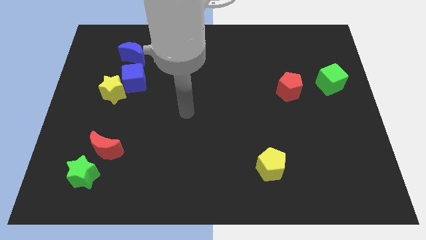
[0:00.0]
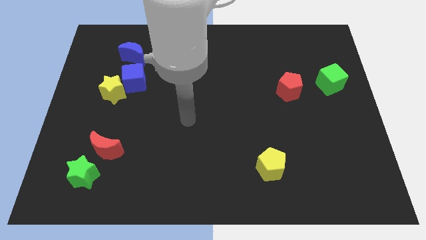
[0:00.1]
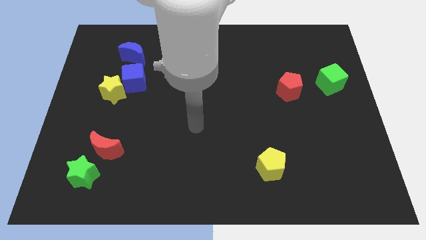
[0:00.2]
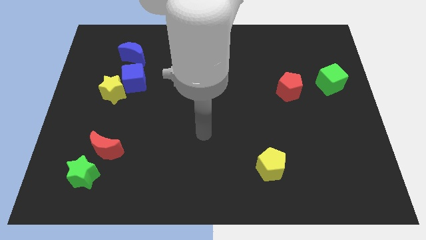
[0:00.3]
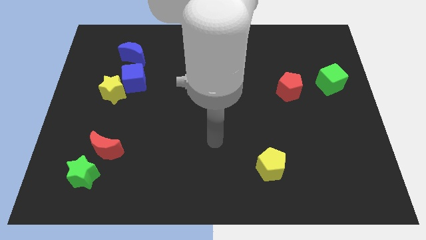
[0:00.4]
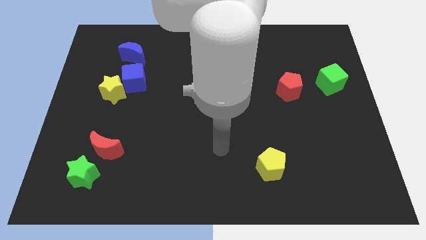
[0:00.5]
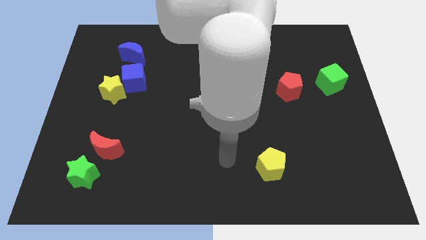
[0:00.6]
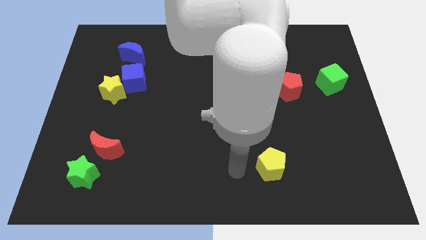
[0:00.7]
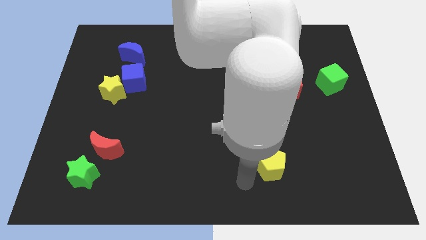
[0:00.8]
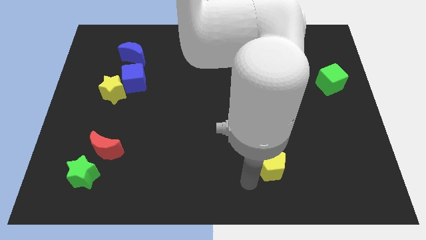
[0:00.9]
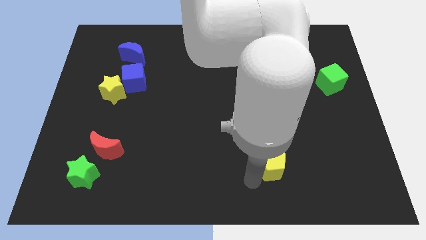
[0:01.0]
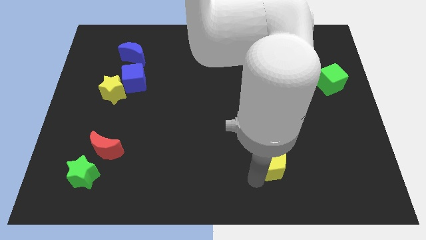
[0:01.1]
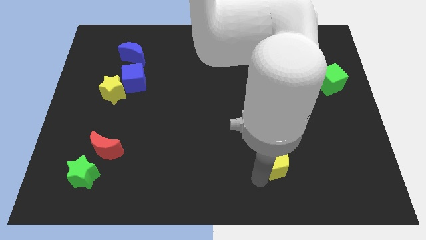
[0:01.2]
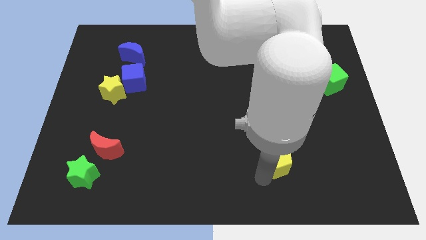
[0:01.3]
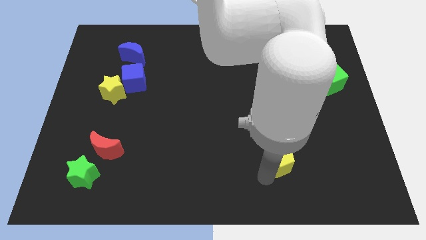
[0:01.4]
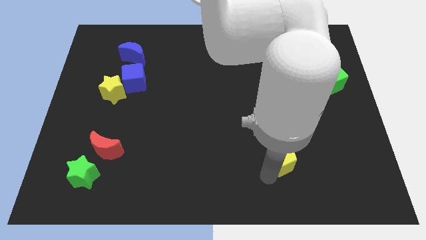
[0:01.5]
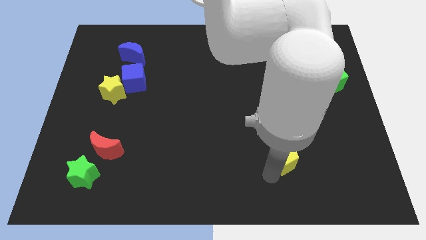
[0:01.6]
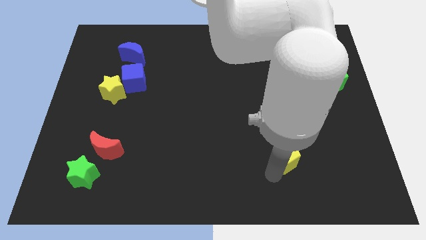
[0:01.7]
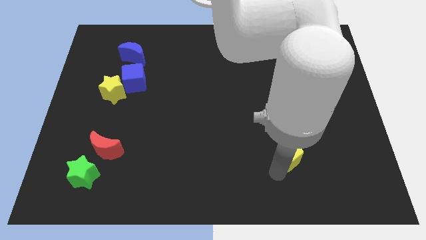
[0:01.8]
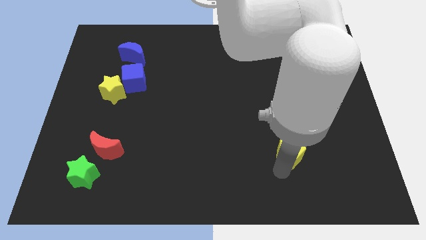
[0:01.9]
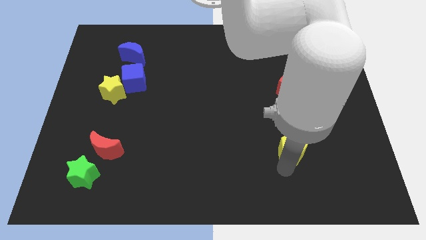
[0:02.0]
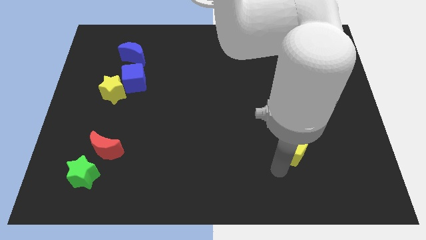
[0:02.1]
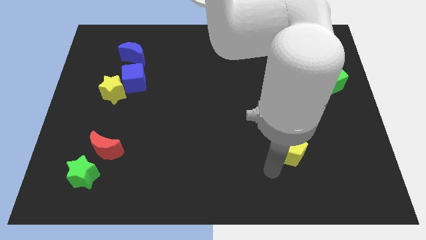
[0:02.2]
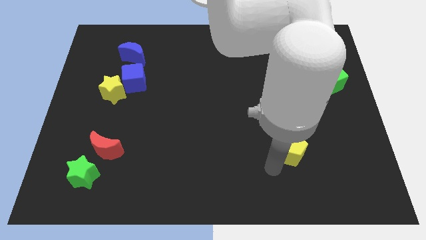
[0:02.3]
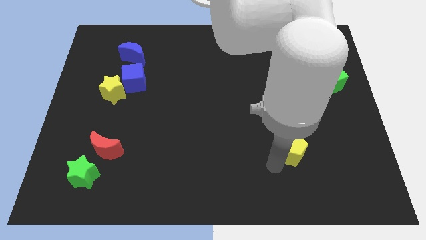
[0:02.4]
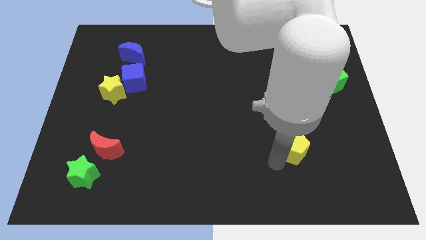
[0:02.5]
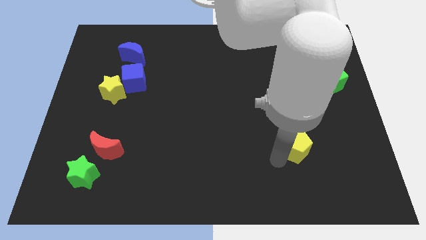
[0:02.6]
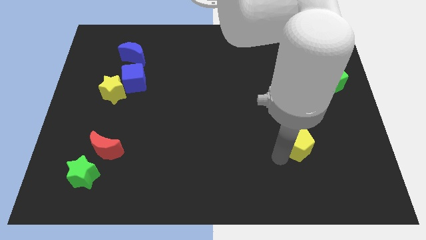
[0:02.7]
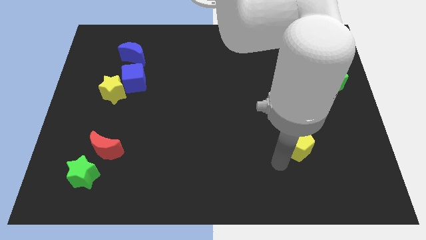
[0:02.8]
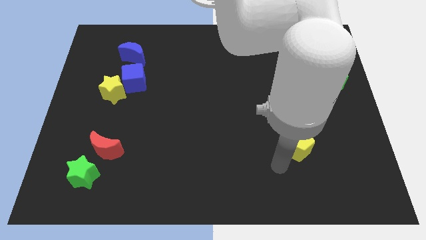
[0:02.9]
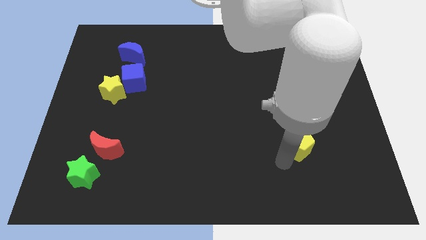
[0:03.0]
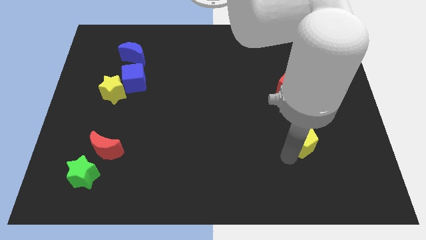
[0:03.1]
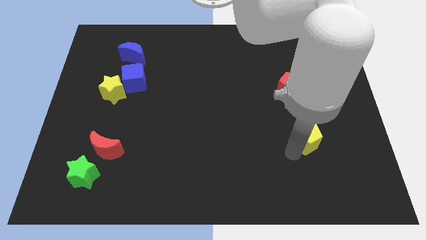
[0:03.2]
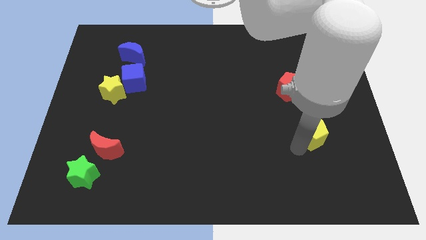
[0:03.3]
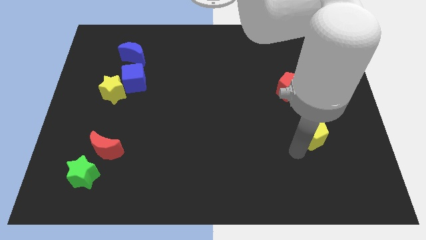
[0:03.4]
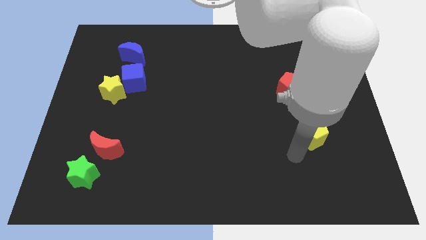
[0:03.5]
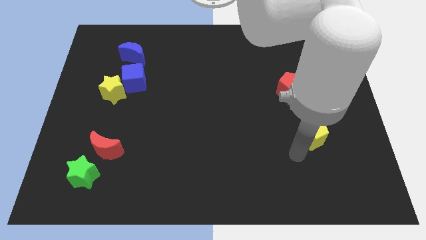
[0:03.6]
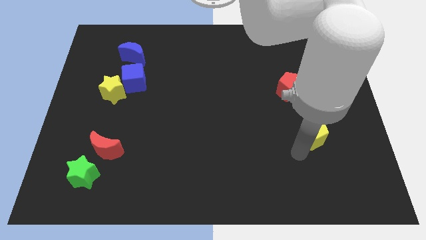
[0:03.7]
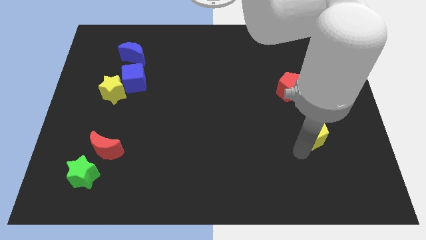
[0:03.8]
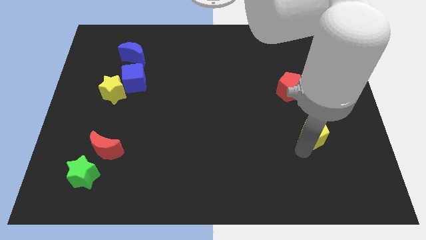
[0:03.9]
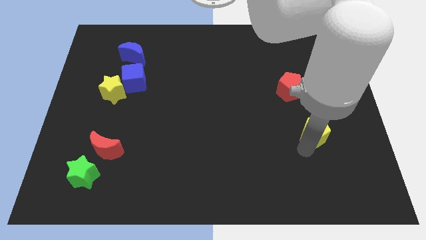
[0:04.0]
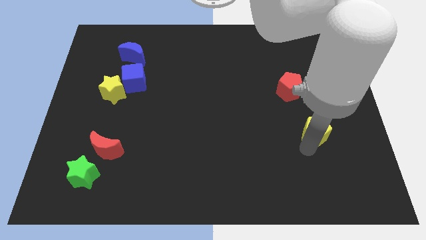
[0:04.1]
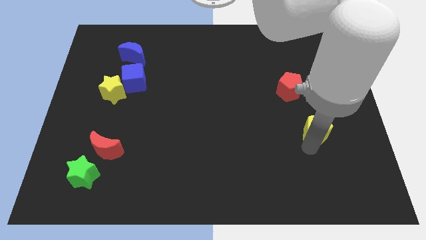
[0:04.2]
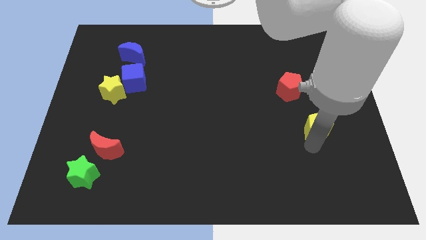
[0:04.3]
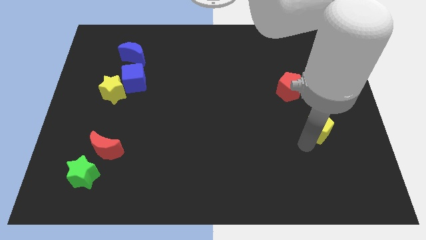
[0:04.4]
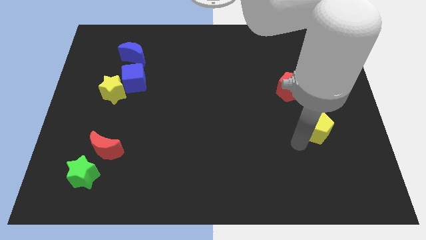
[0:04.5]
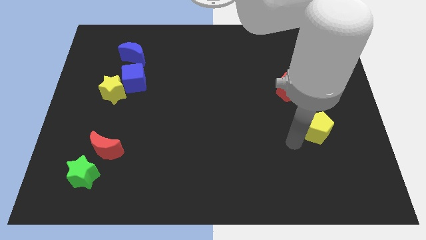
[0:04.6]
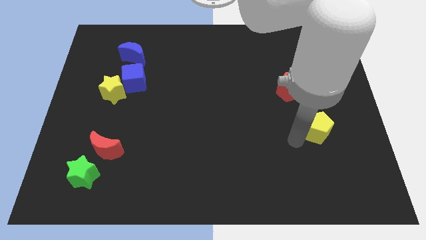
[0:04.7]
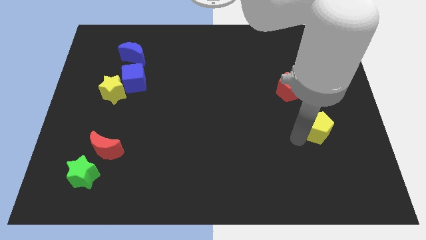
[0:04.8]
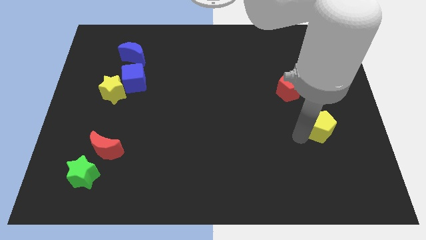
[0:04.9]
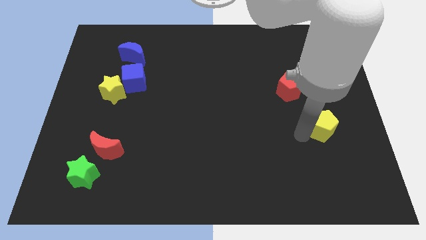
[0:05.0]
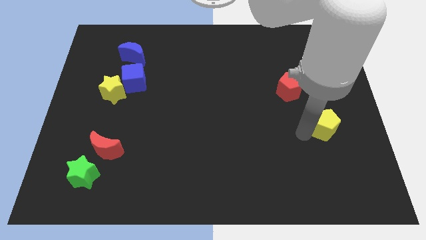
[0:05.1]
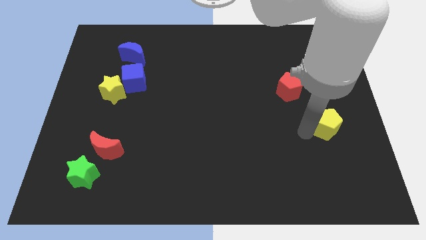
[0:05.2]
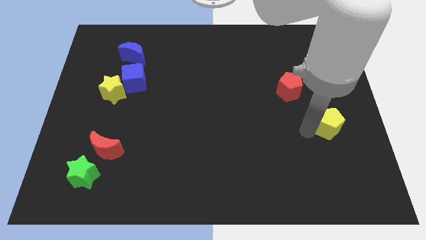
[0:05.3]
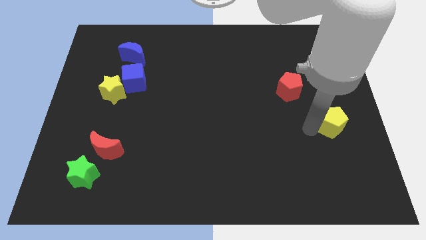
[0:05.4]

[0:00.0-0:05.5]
push the yellow pentagon to the right side of the board

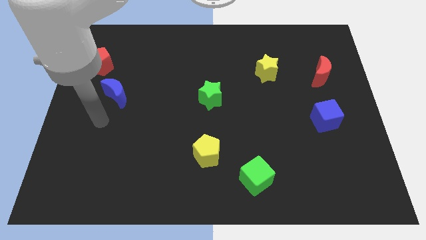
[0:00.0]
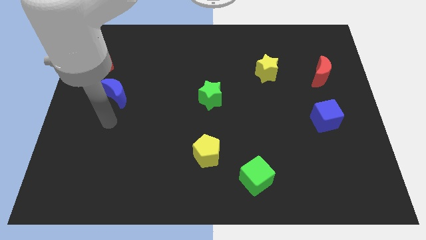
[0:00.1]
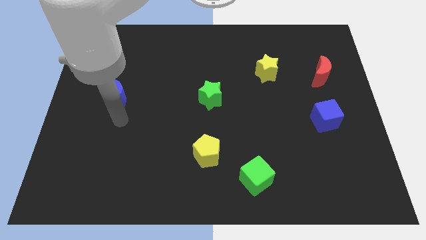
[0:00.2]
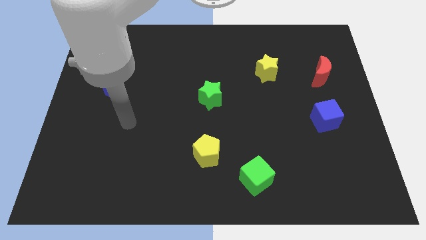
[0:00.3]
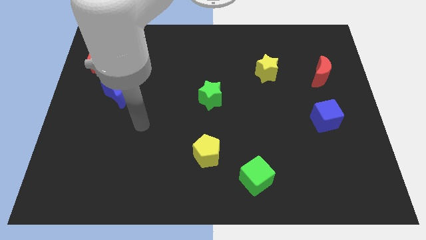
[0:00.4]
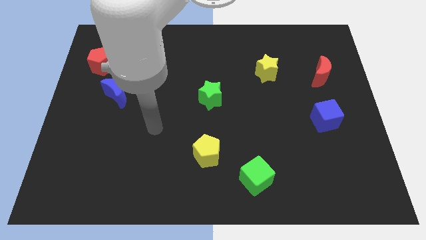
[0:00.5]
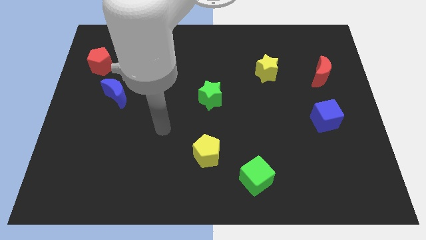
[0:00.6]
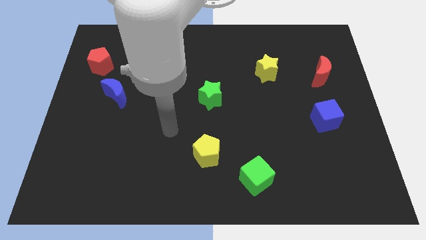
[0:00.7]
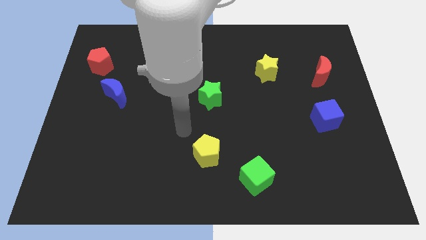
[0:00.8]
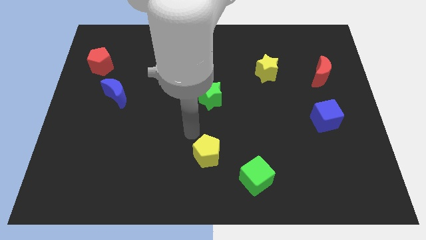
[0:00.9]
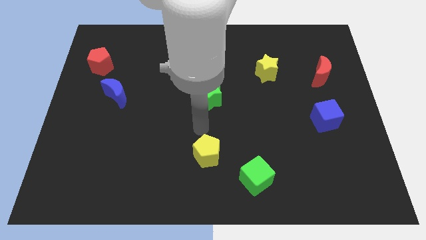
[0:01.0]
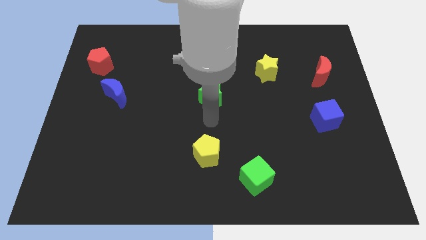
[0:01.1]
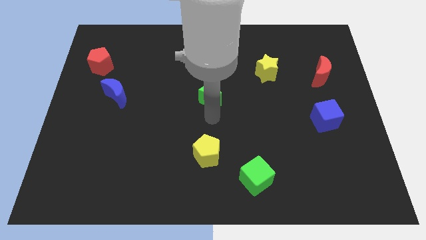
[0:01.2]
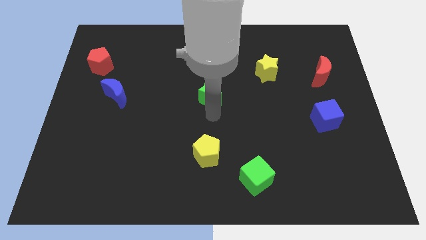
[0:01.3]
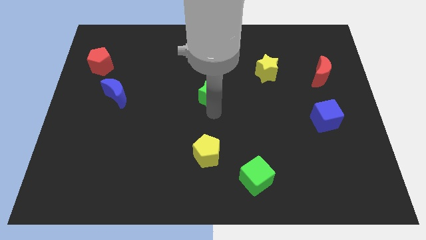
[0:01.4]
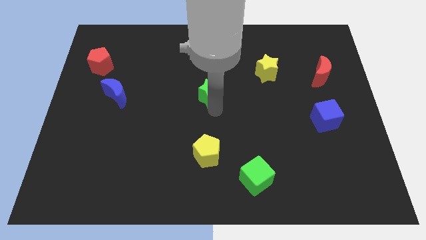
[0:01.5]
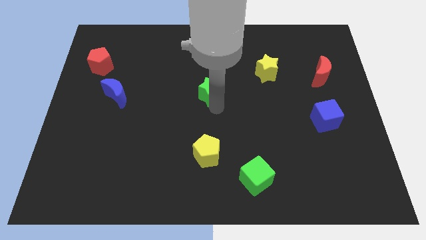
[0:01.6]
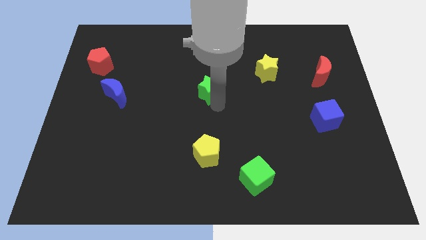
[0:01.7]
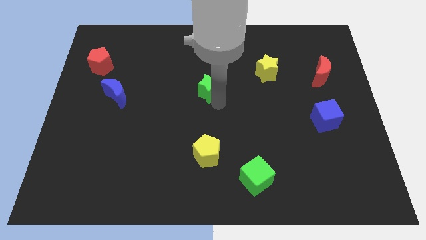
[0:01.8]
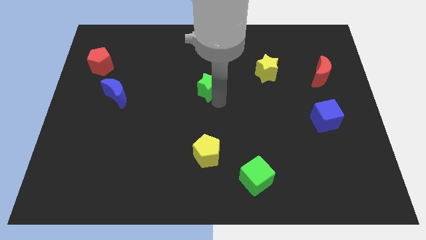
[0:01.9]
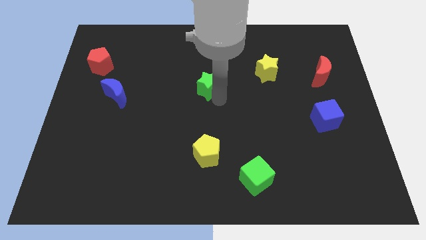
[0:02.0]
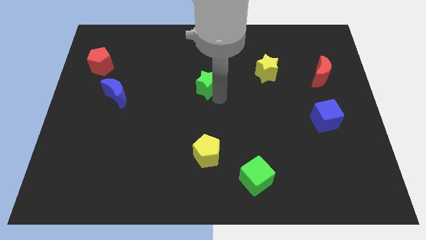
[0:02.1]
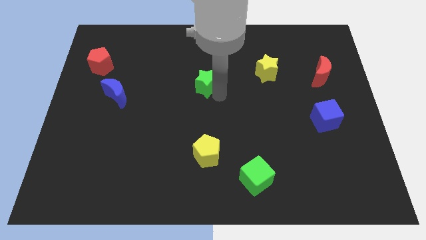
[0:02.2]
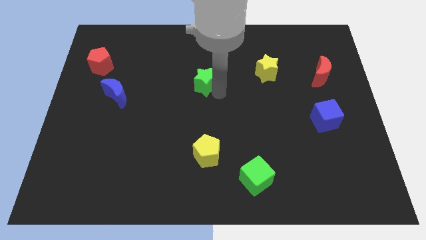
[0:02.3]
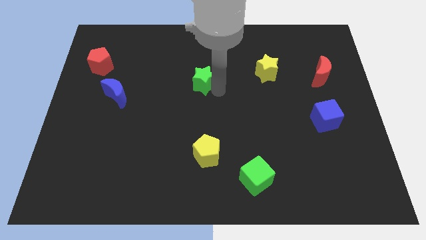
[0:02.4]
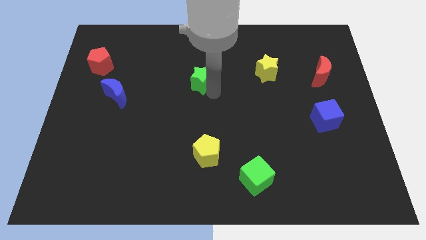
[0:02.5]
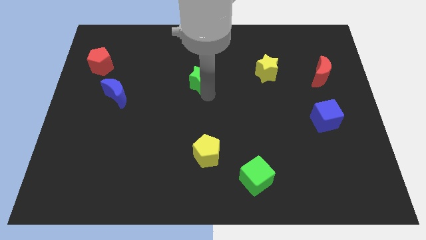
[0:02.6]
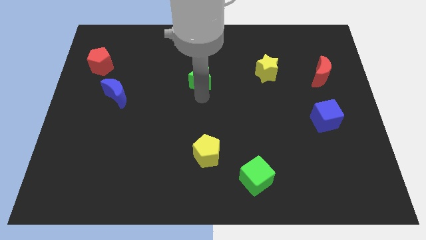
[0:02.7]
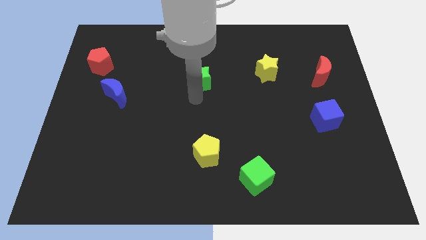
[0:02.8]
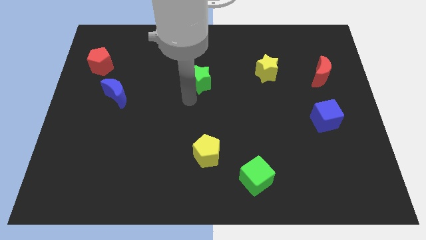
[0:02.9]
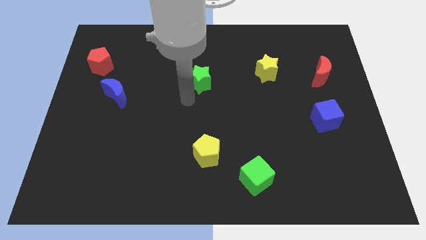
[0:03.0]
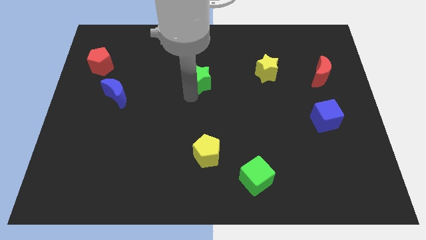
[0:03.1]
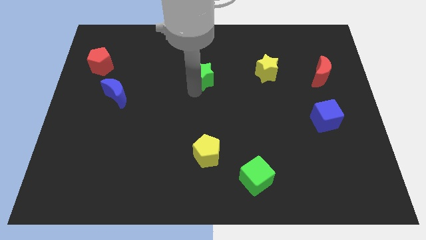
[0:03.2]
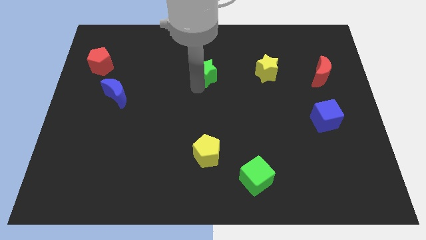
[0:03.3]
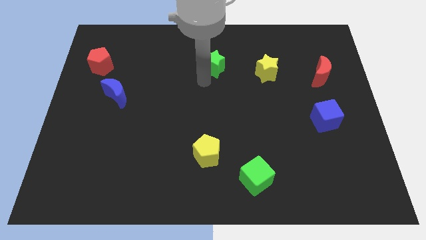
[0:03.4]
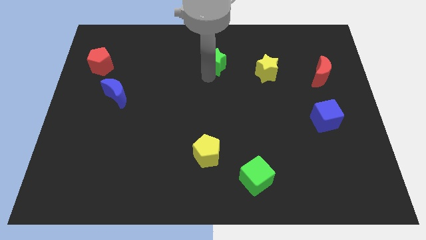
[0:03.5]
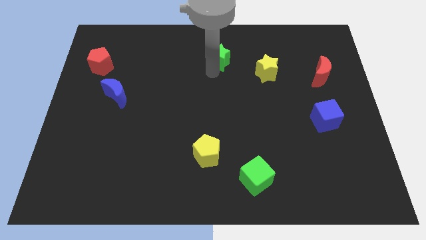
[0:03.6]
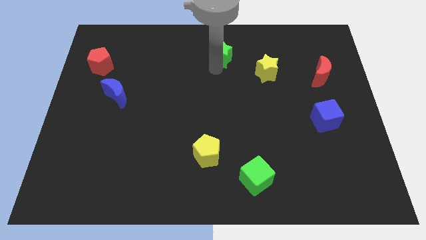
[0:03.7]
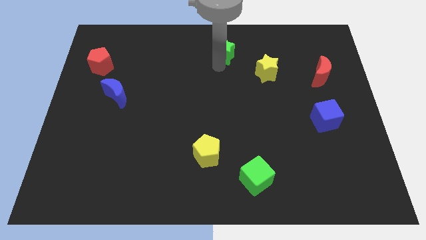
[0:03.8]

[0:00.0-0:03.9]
push the green star to the top side
